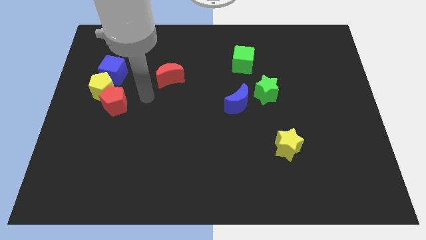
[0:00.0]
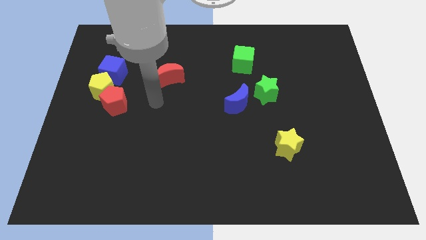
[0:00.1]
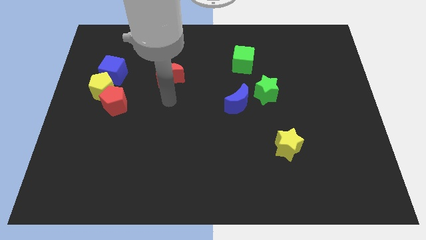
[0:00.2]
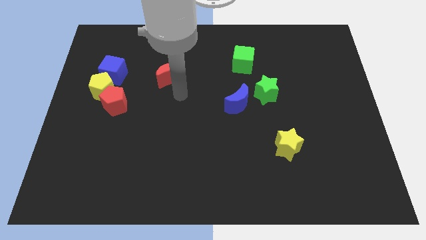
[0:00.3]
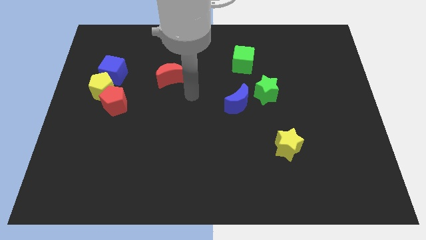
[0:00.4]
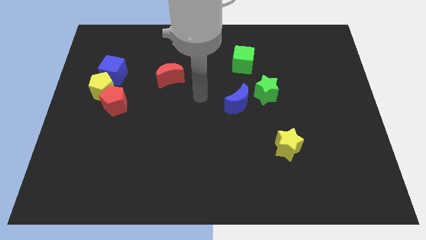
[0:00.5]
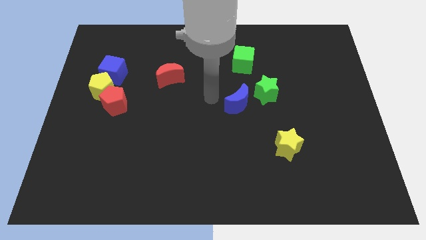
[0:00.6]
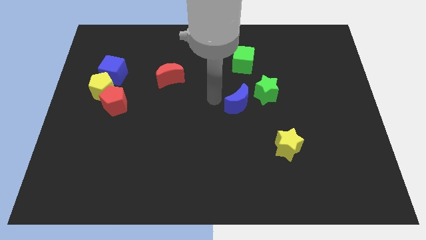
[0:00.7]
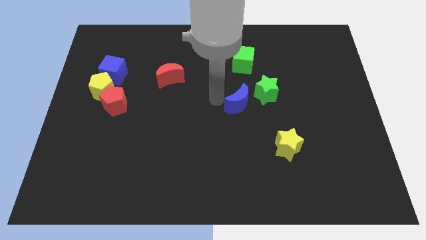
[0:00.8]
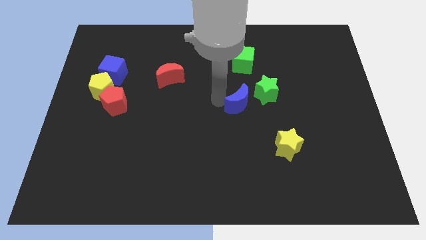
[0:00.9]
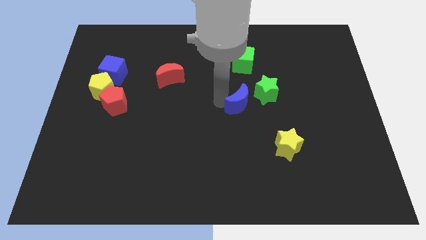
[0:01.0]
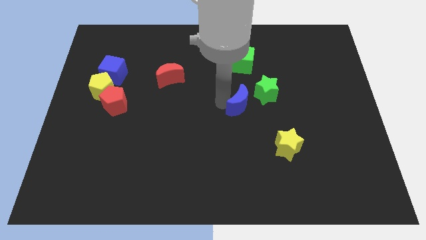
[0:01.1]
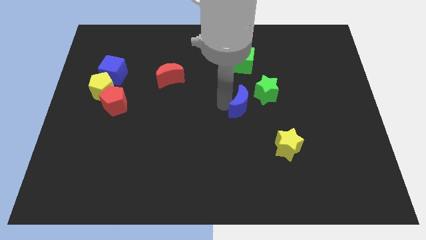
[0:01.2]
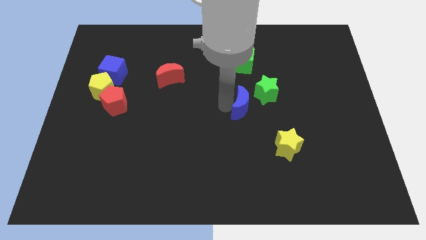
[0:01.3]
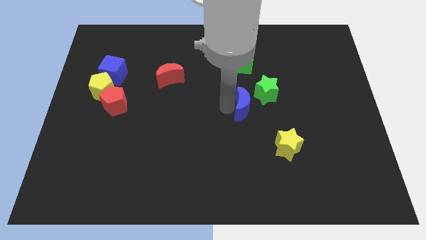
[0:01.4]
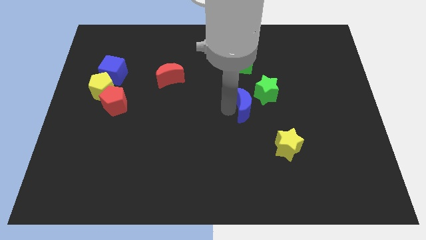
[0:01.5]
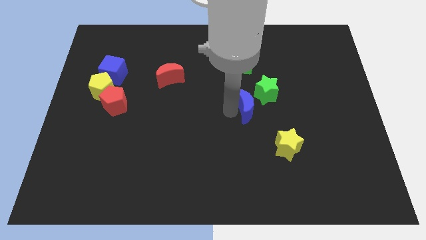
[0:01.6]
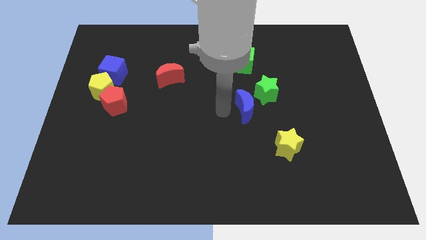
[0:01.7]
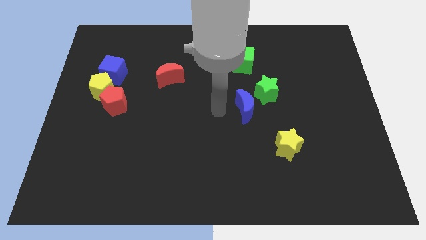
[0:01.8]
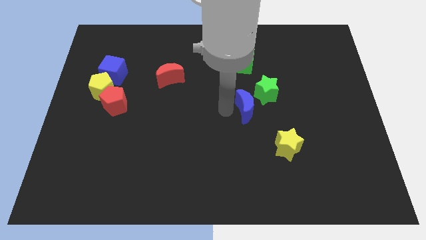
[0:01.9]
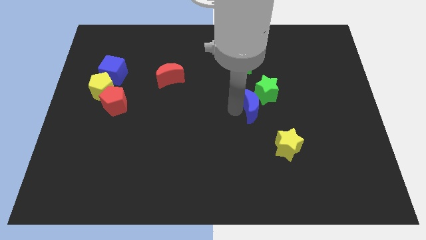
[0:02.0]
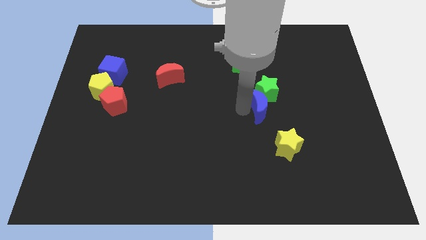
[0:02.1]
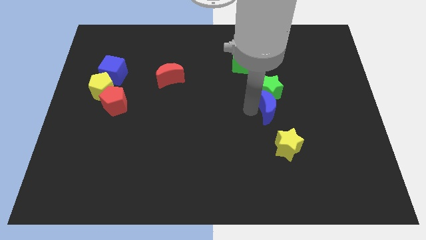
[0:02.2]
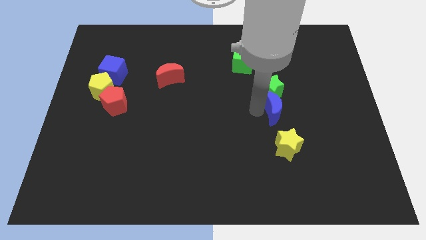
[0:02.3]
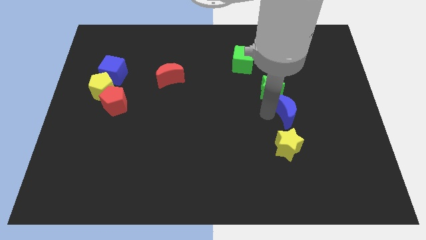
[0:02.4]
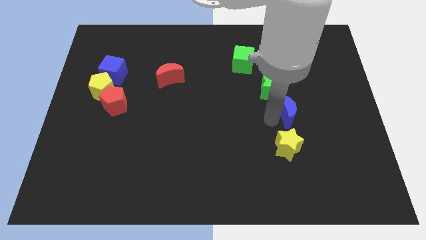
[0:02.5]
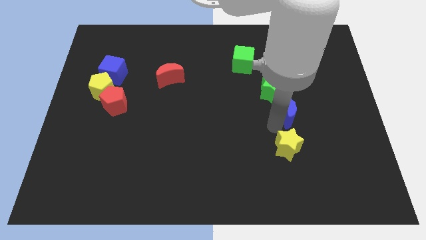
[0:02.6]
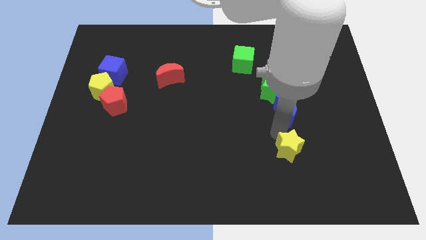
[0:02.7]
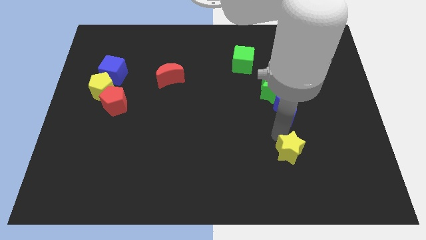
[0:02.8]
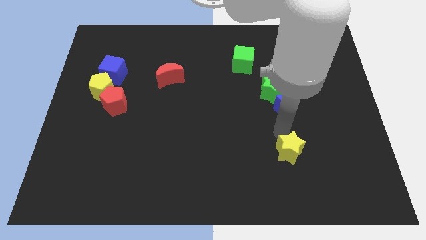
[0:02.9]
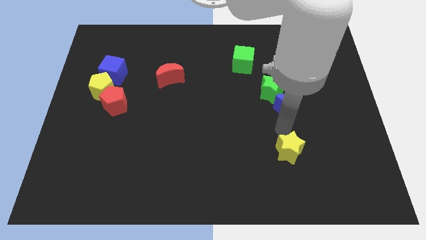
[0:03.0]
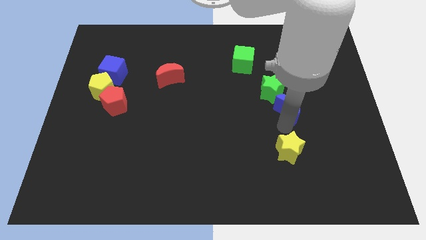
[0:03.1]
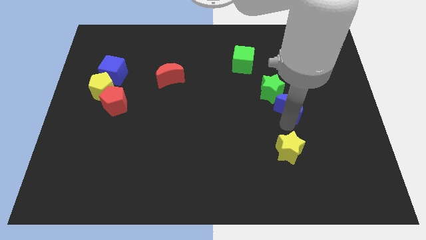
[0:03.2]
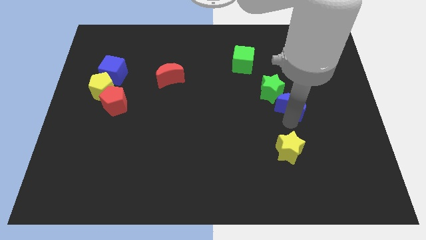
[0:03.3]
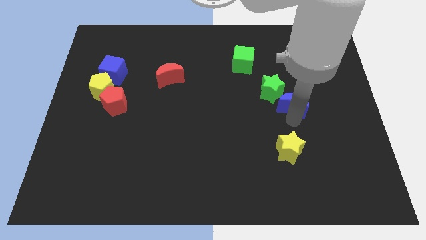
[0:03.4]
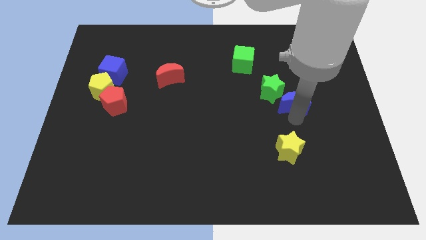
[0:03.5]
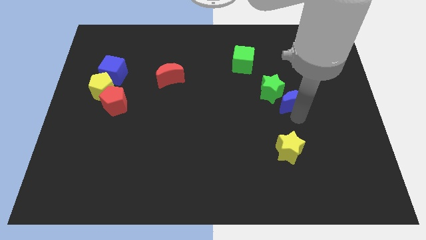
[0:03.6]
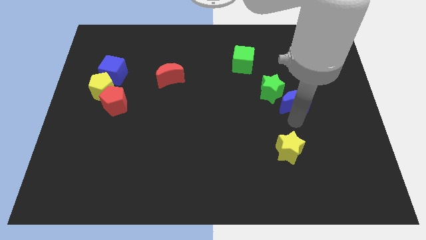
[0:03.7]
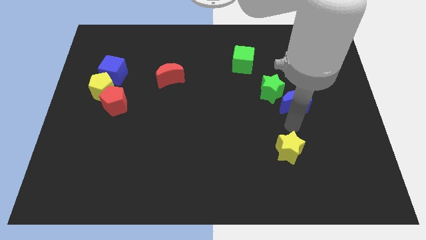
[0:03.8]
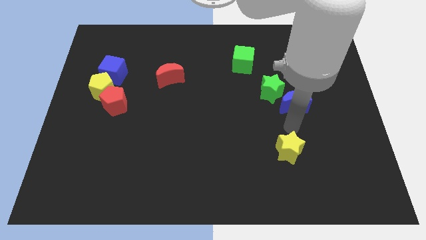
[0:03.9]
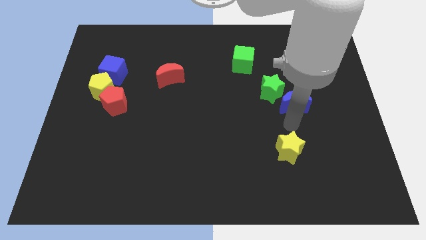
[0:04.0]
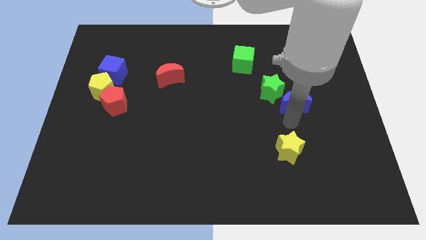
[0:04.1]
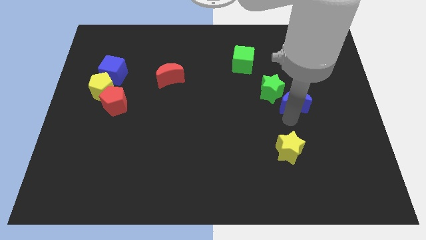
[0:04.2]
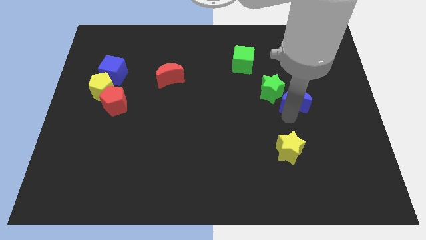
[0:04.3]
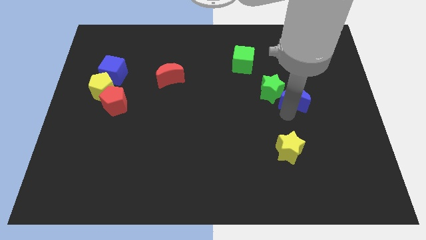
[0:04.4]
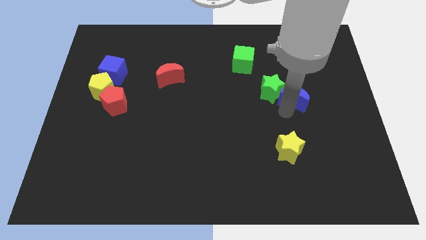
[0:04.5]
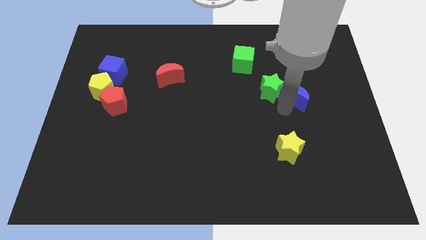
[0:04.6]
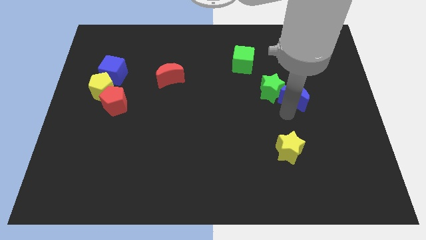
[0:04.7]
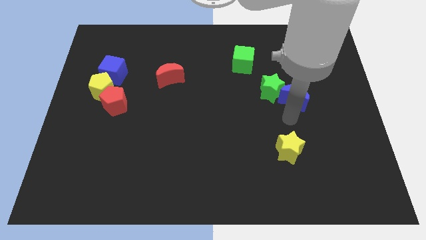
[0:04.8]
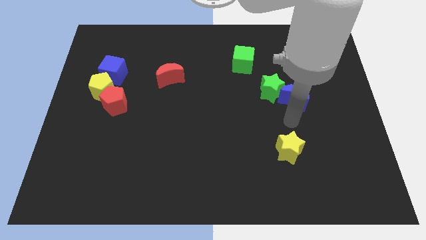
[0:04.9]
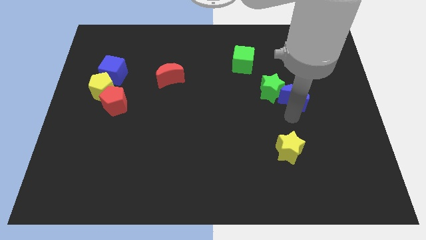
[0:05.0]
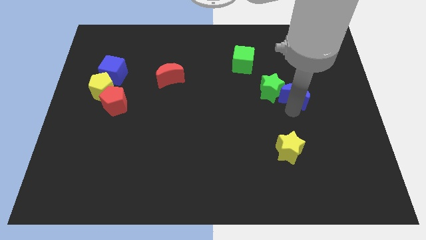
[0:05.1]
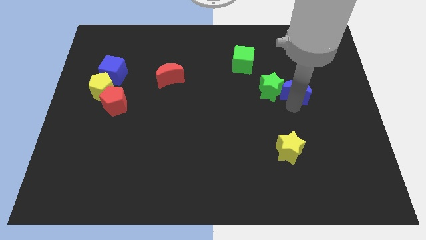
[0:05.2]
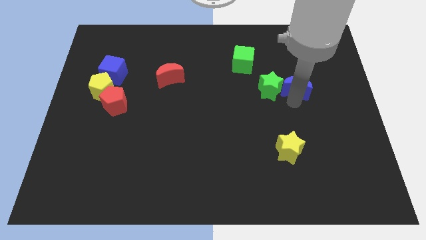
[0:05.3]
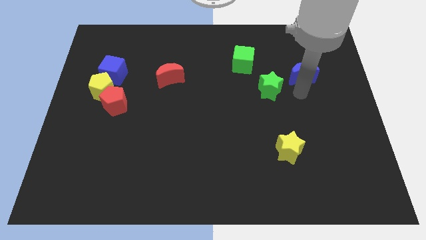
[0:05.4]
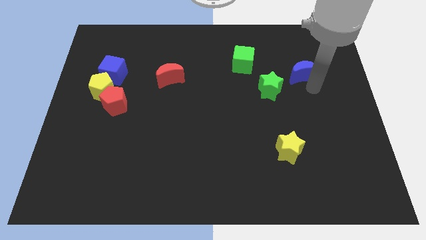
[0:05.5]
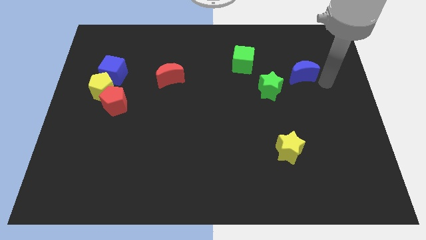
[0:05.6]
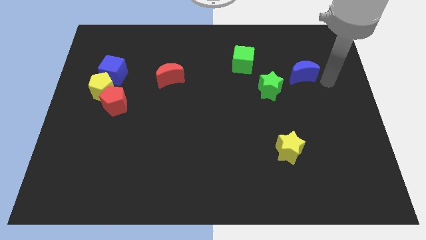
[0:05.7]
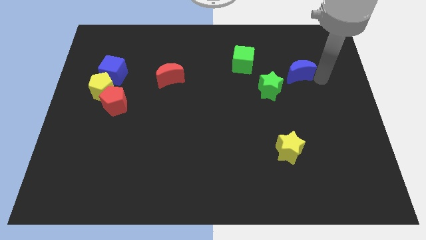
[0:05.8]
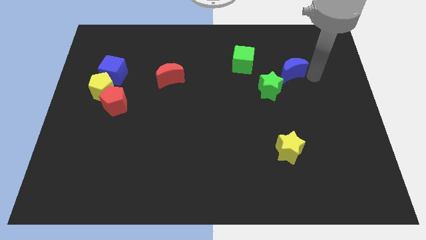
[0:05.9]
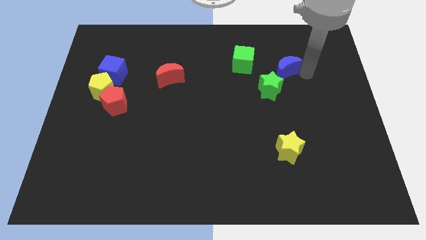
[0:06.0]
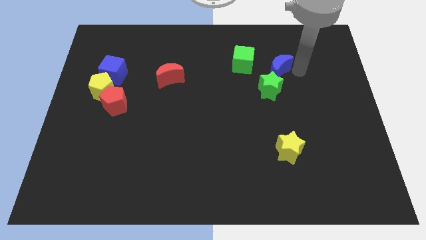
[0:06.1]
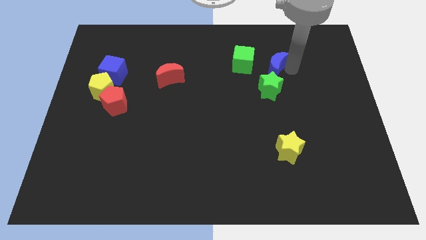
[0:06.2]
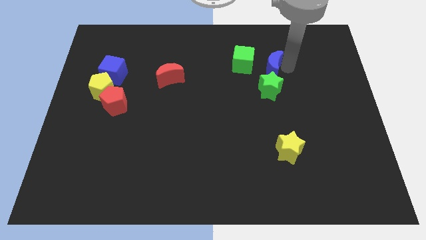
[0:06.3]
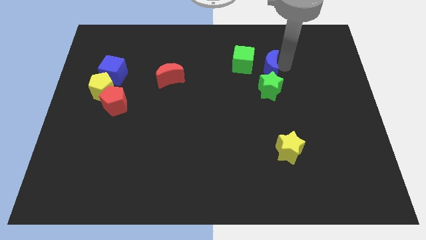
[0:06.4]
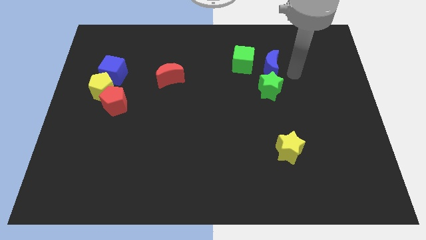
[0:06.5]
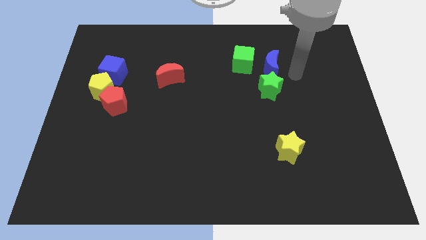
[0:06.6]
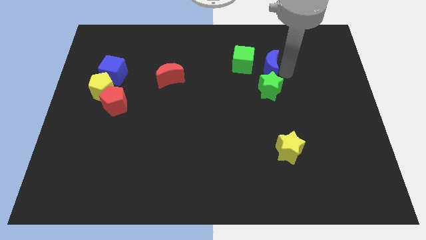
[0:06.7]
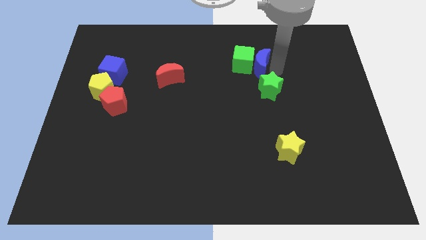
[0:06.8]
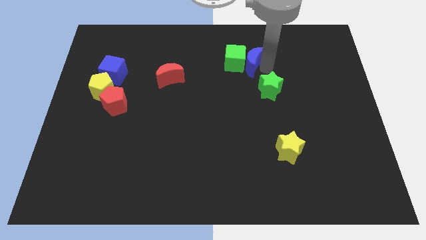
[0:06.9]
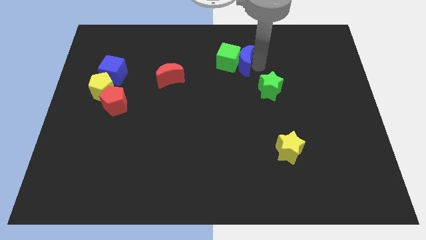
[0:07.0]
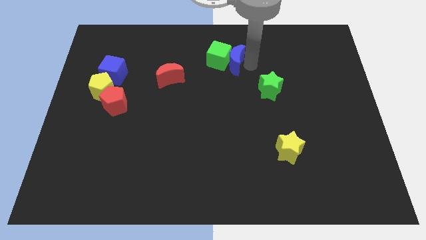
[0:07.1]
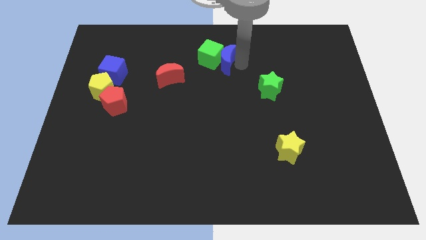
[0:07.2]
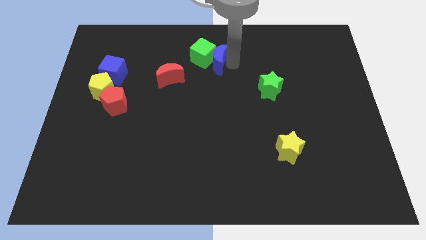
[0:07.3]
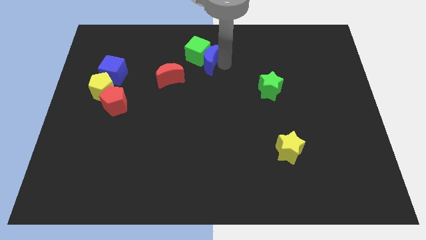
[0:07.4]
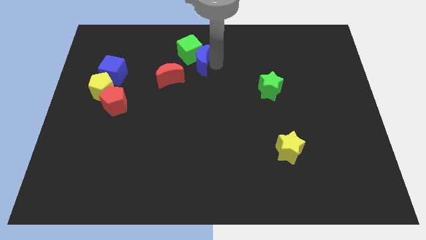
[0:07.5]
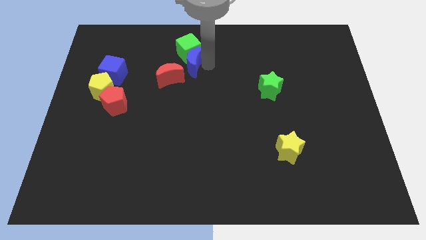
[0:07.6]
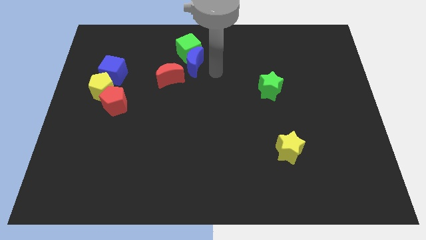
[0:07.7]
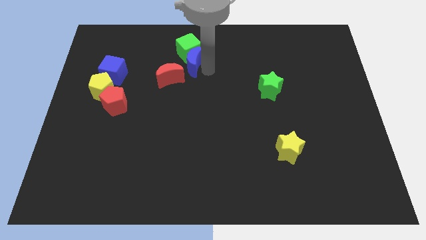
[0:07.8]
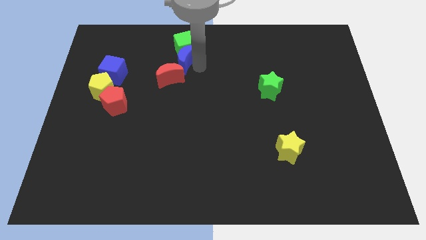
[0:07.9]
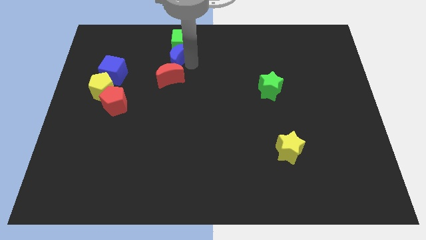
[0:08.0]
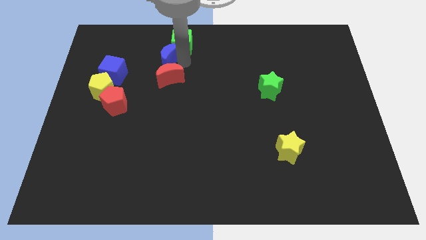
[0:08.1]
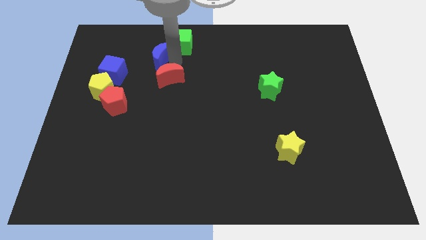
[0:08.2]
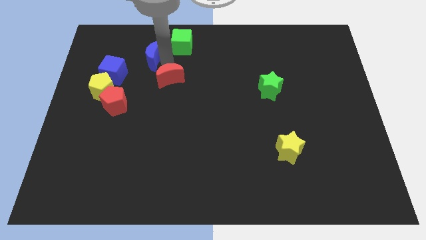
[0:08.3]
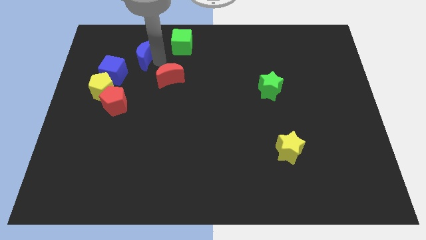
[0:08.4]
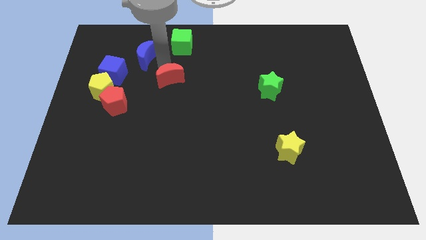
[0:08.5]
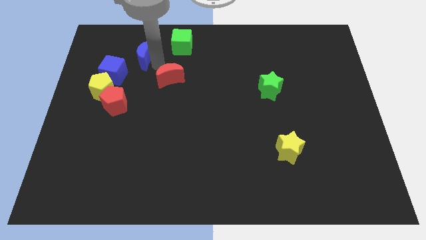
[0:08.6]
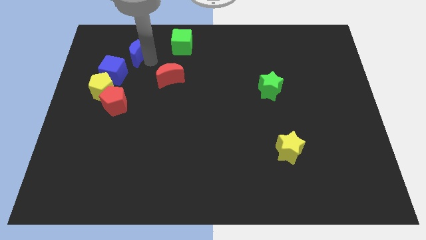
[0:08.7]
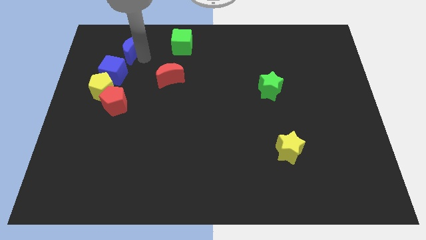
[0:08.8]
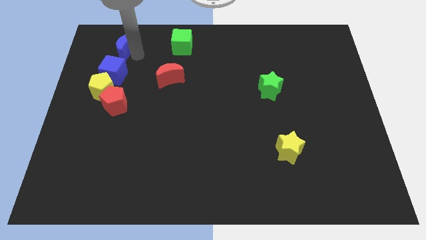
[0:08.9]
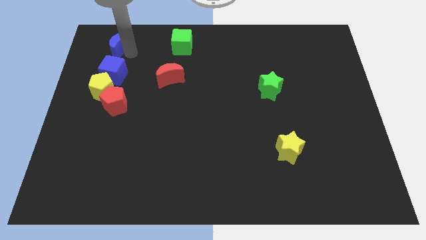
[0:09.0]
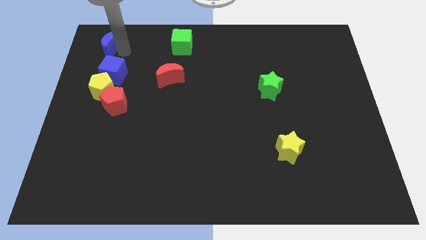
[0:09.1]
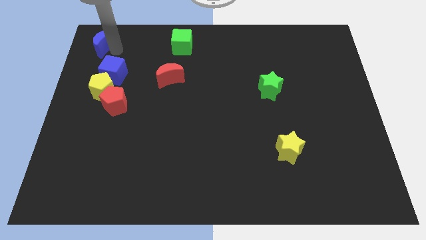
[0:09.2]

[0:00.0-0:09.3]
put the blue moon to the top left
